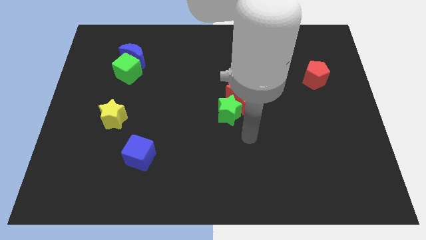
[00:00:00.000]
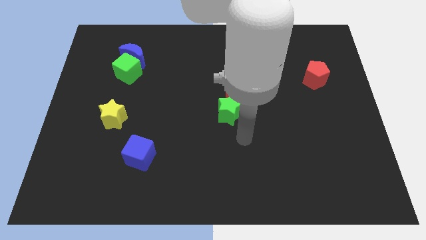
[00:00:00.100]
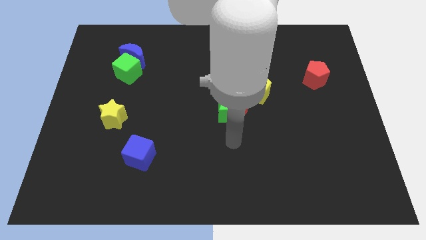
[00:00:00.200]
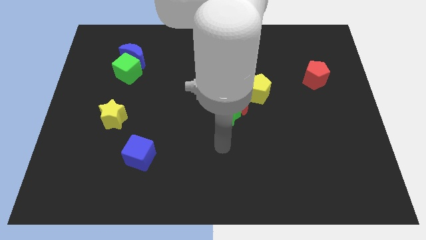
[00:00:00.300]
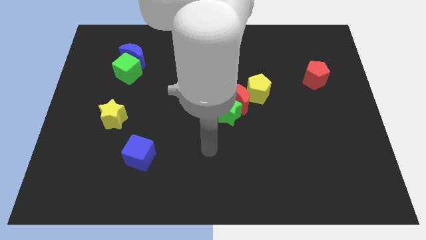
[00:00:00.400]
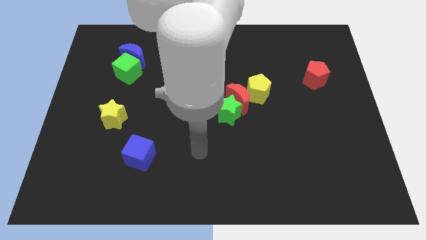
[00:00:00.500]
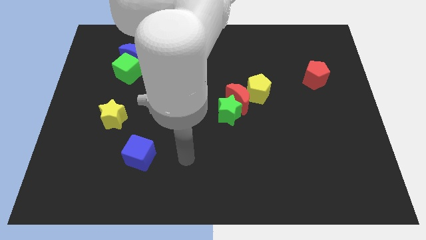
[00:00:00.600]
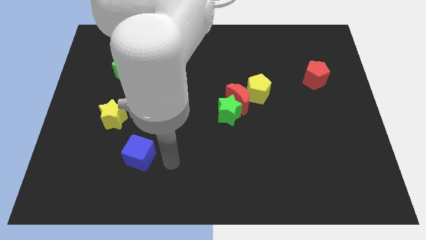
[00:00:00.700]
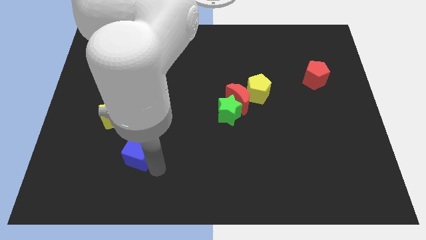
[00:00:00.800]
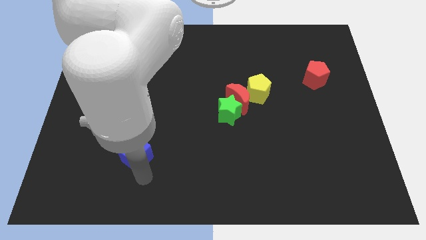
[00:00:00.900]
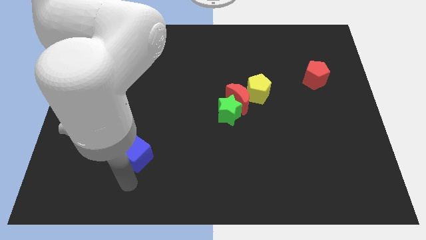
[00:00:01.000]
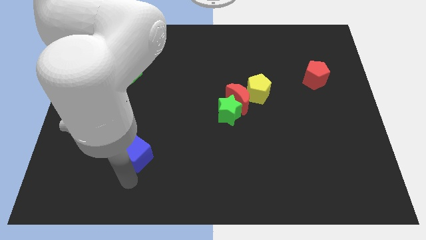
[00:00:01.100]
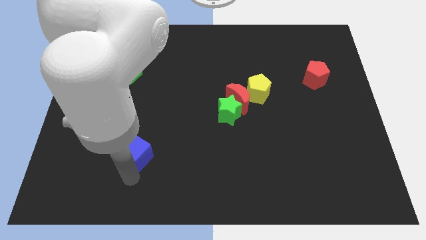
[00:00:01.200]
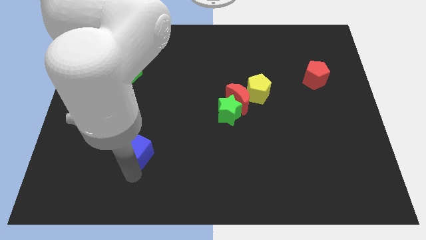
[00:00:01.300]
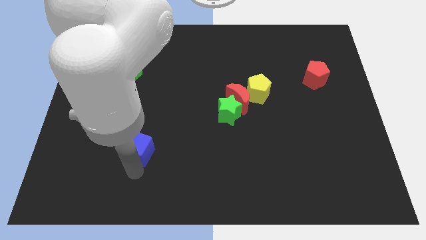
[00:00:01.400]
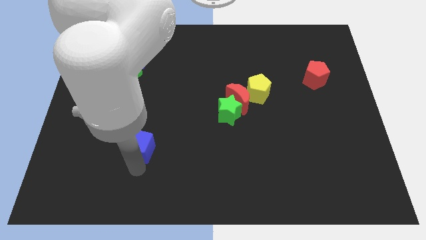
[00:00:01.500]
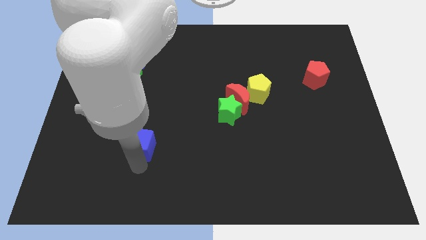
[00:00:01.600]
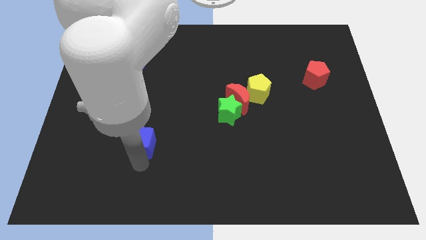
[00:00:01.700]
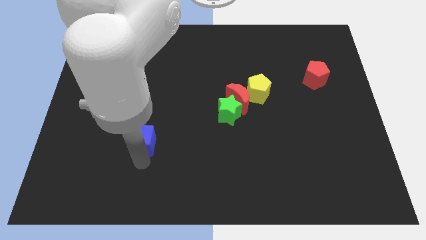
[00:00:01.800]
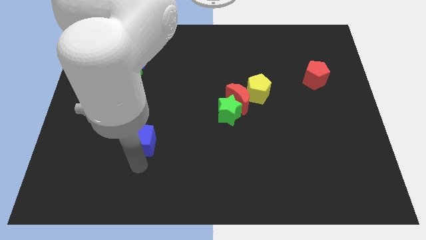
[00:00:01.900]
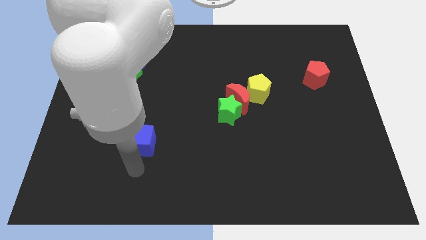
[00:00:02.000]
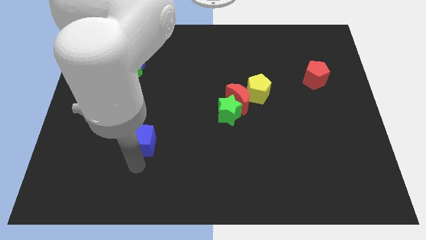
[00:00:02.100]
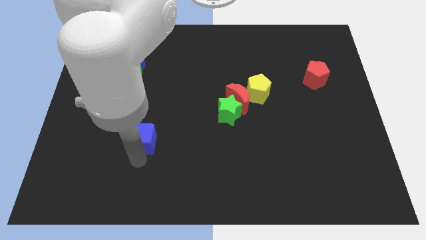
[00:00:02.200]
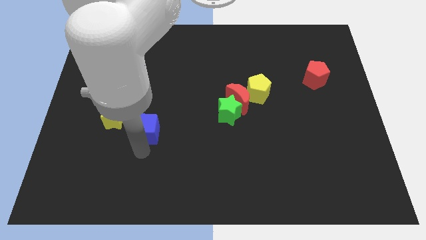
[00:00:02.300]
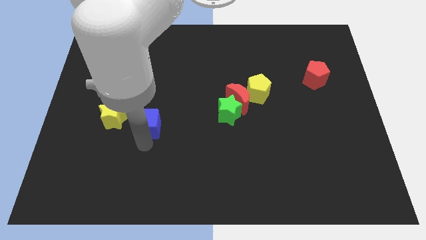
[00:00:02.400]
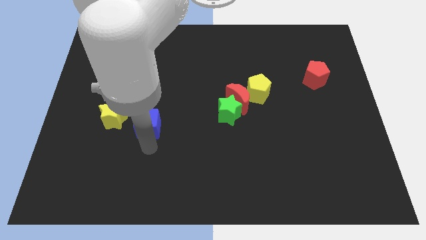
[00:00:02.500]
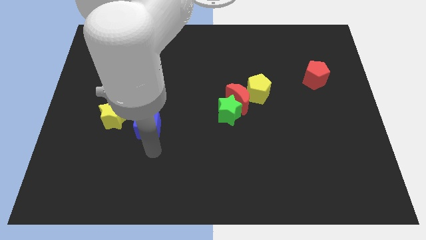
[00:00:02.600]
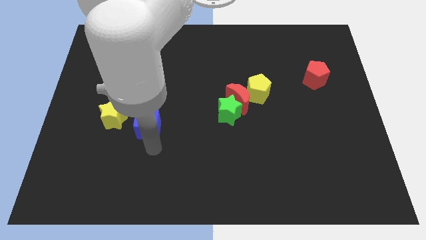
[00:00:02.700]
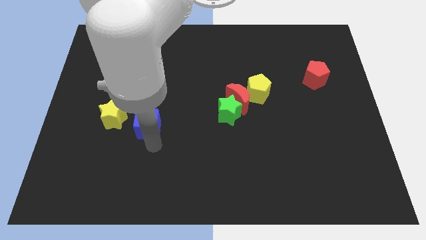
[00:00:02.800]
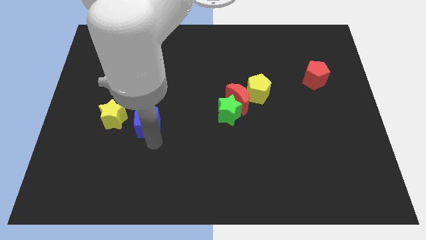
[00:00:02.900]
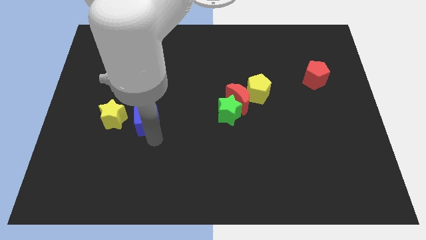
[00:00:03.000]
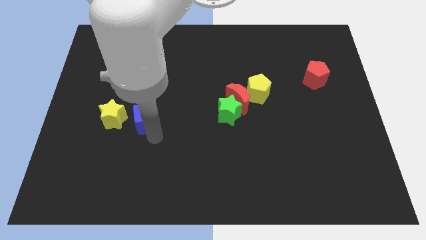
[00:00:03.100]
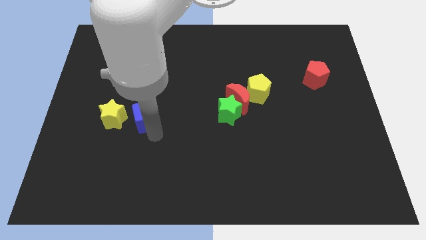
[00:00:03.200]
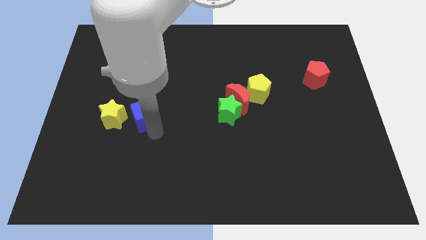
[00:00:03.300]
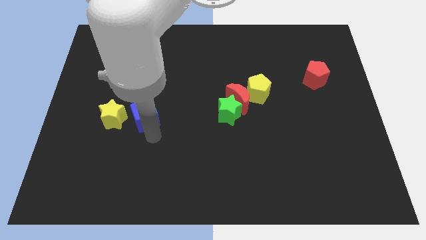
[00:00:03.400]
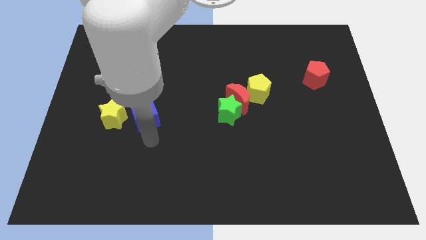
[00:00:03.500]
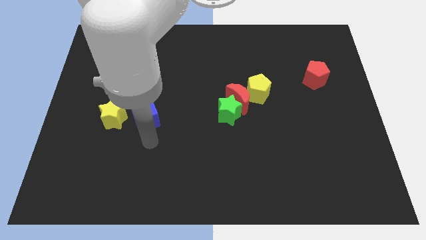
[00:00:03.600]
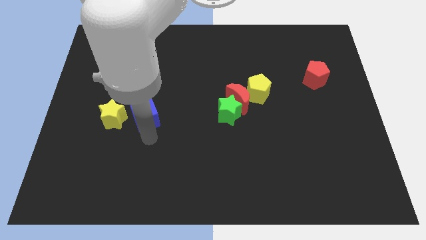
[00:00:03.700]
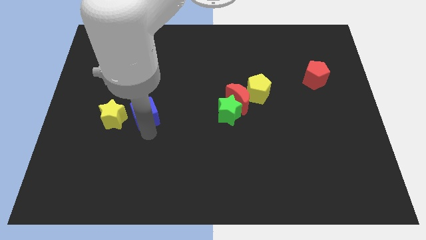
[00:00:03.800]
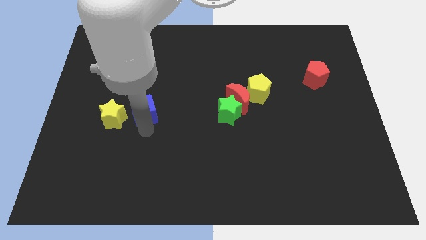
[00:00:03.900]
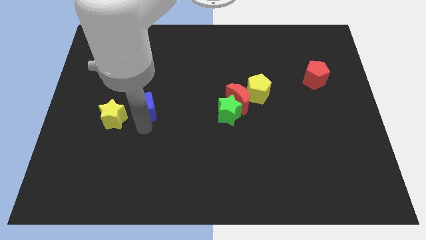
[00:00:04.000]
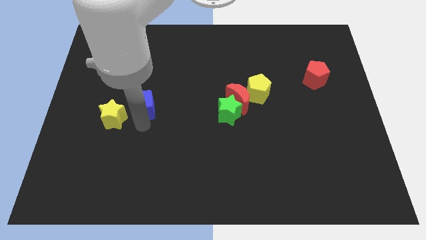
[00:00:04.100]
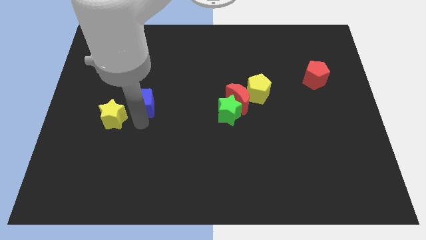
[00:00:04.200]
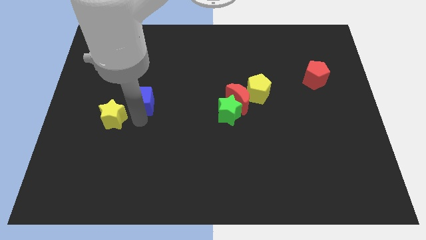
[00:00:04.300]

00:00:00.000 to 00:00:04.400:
move the blue cube to the bottom right side of the green cube

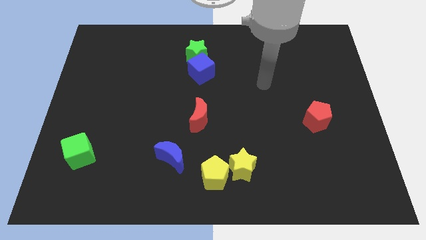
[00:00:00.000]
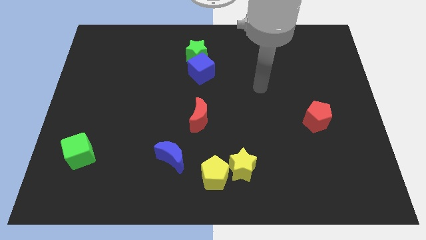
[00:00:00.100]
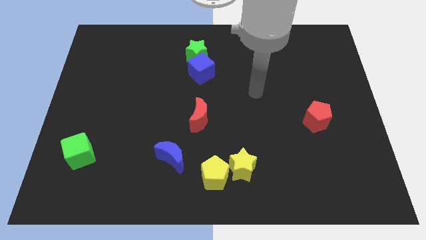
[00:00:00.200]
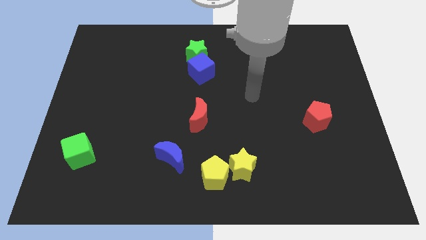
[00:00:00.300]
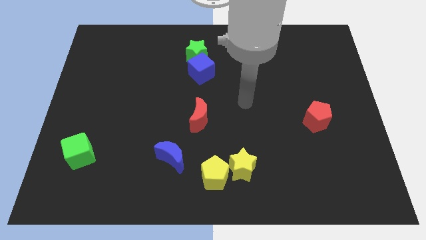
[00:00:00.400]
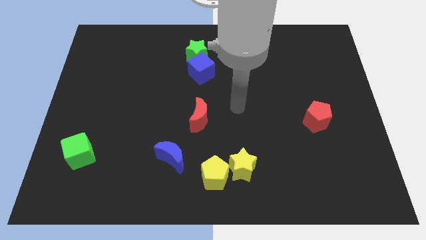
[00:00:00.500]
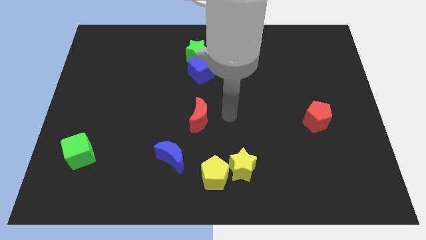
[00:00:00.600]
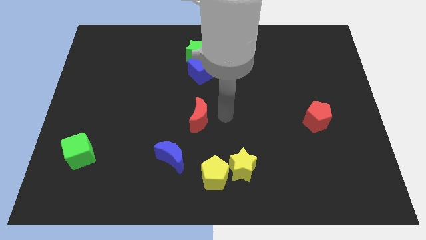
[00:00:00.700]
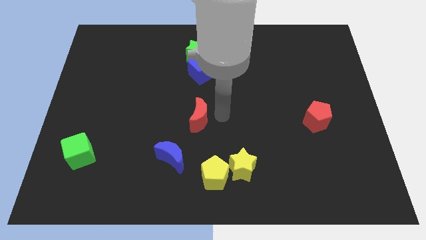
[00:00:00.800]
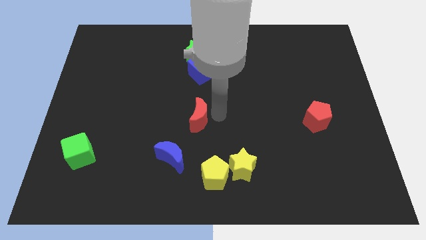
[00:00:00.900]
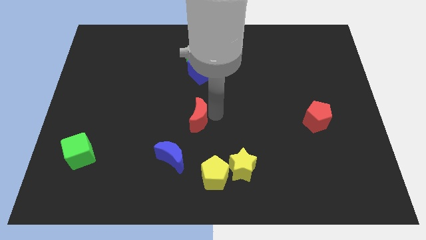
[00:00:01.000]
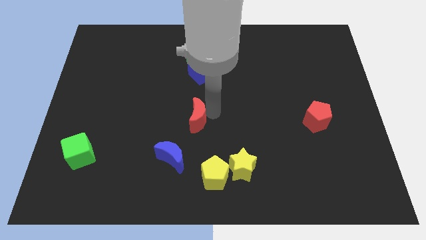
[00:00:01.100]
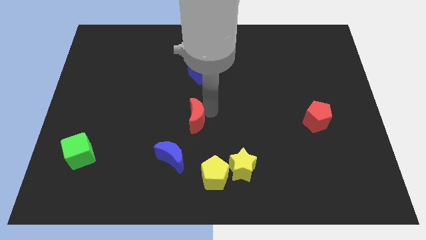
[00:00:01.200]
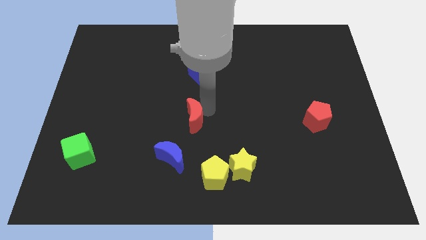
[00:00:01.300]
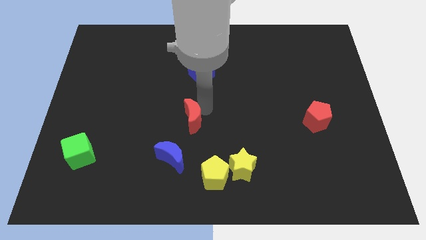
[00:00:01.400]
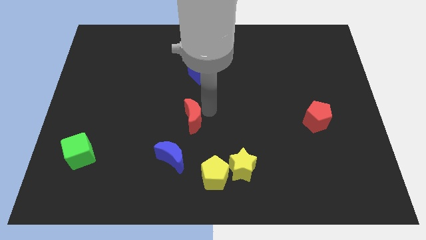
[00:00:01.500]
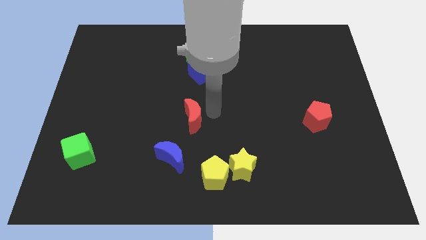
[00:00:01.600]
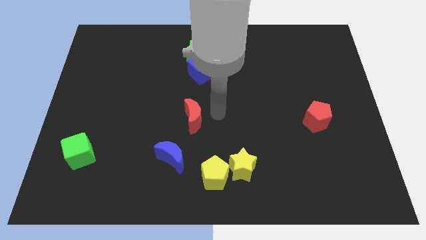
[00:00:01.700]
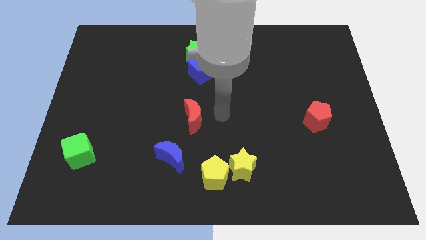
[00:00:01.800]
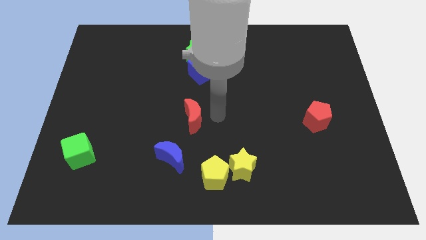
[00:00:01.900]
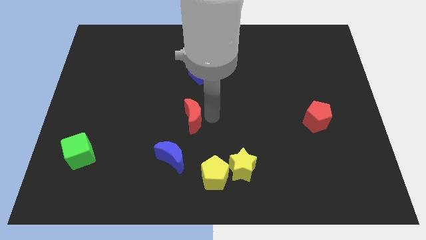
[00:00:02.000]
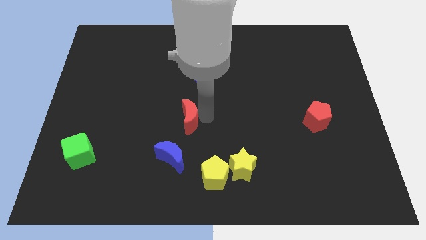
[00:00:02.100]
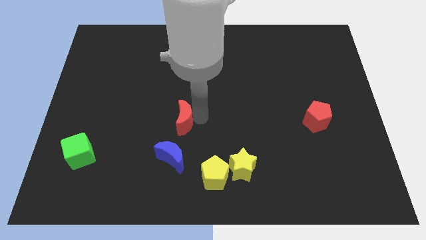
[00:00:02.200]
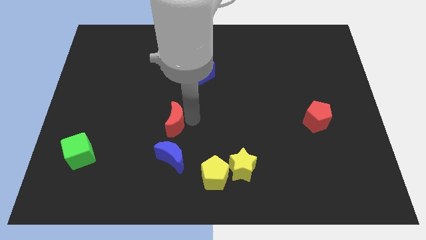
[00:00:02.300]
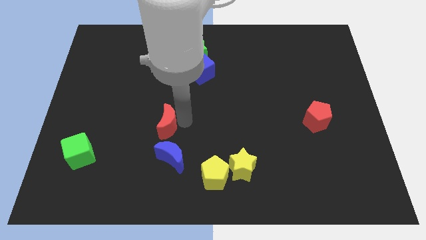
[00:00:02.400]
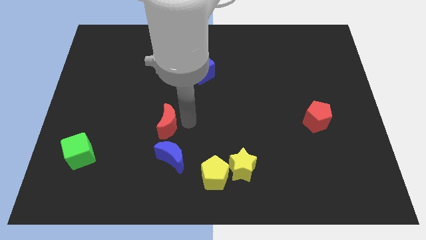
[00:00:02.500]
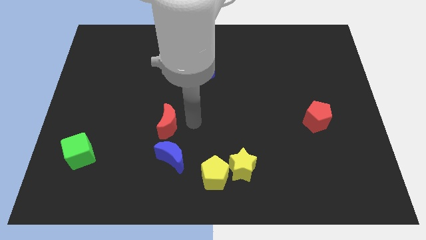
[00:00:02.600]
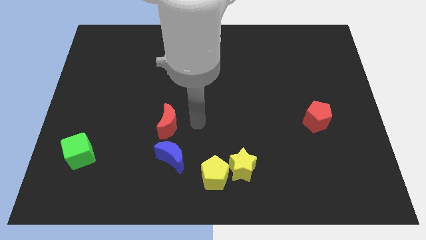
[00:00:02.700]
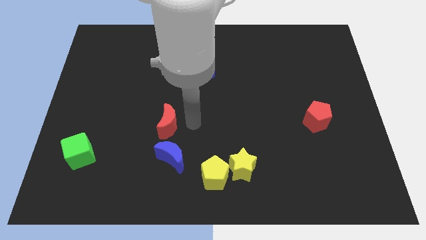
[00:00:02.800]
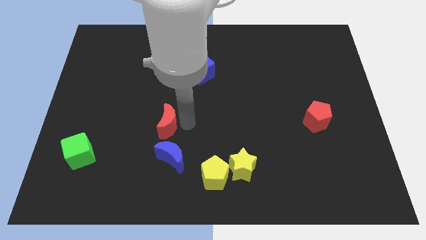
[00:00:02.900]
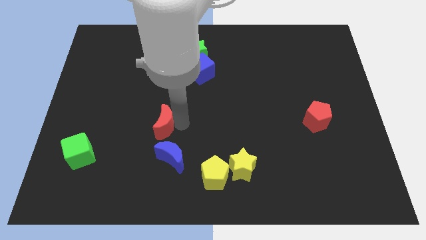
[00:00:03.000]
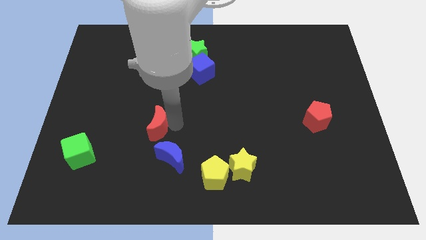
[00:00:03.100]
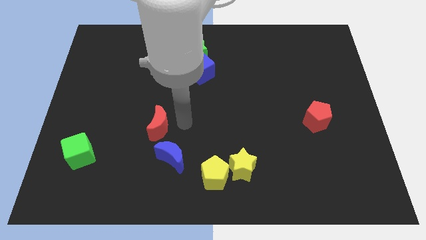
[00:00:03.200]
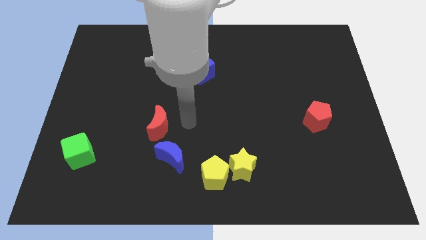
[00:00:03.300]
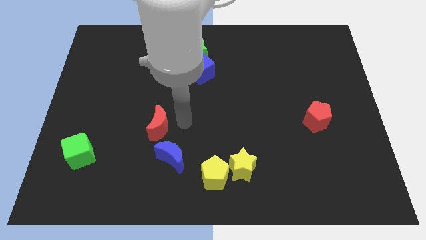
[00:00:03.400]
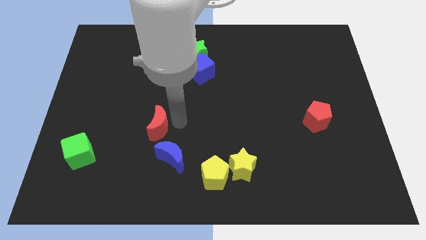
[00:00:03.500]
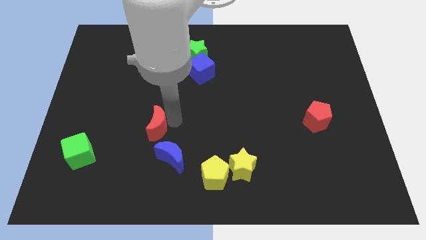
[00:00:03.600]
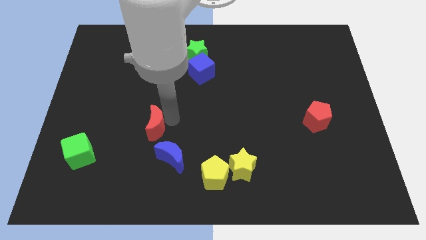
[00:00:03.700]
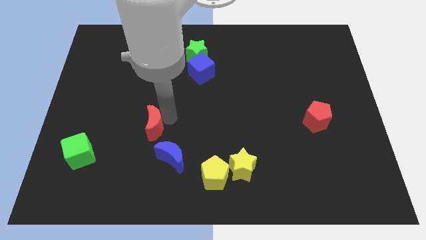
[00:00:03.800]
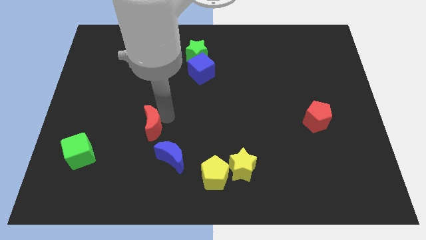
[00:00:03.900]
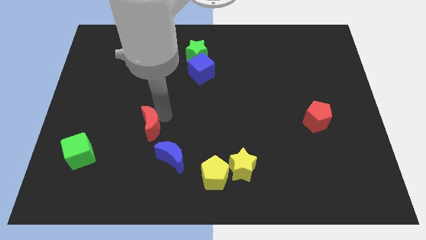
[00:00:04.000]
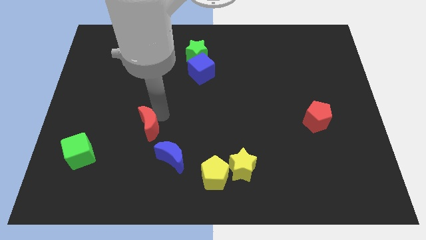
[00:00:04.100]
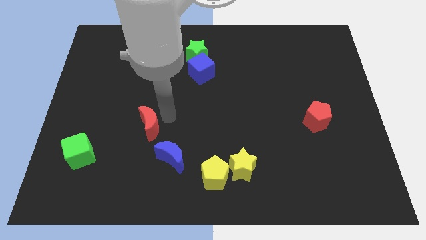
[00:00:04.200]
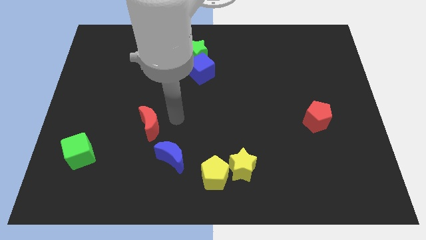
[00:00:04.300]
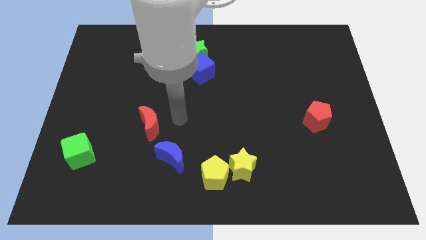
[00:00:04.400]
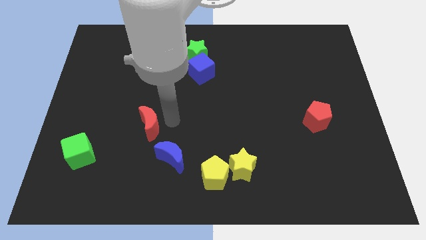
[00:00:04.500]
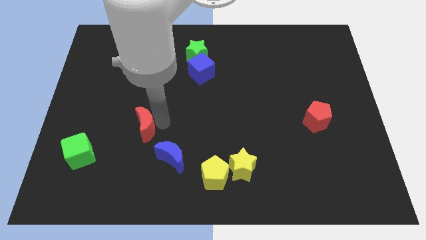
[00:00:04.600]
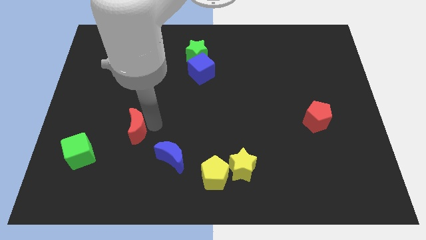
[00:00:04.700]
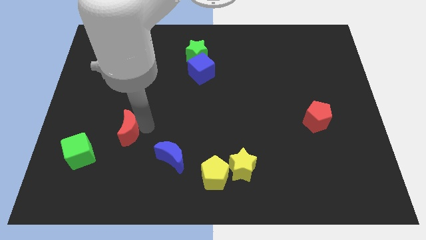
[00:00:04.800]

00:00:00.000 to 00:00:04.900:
move the red moon diagonally up and to the right of the green cube
